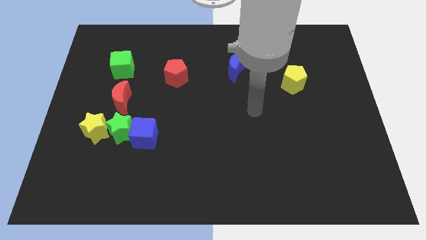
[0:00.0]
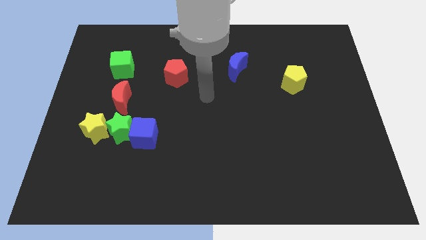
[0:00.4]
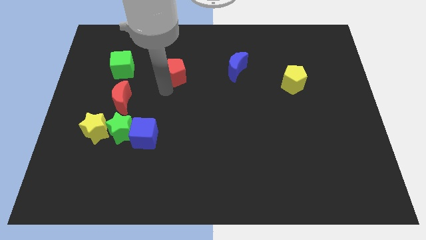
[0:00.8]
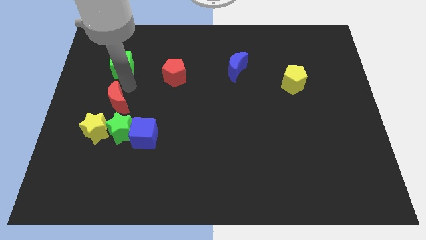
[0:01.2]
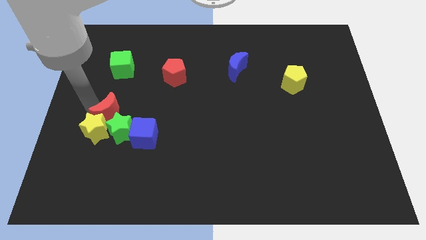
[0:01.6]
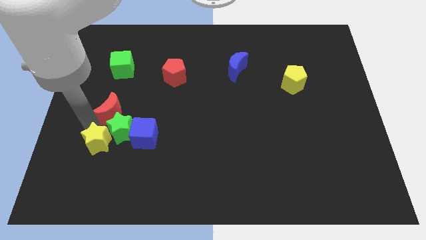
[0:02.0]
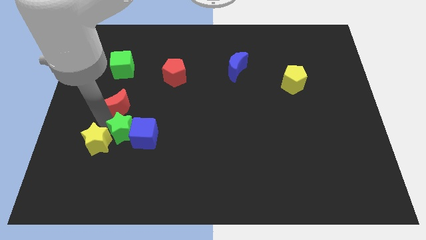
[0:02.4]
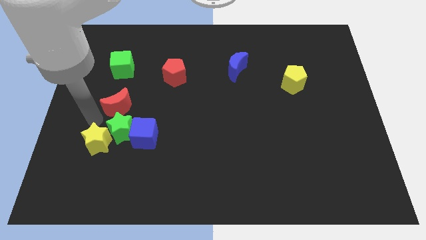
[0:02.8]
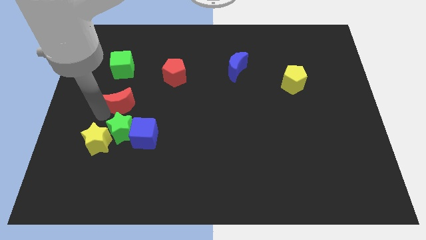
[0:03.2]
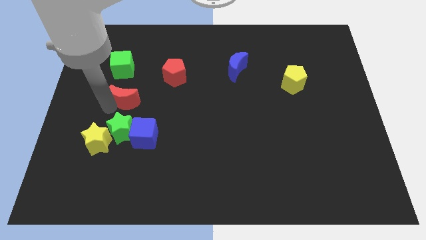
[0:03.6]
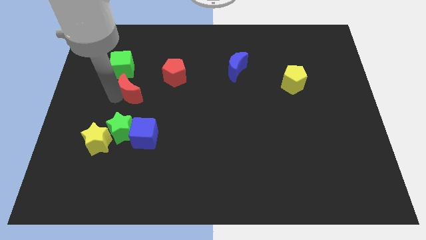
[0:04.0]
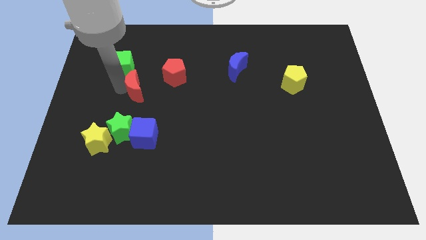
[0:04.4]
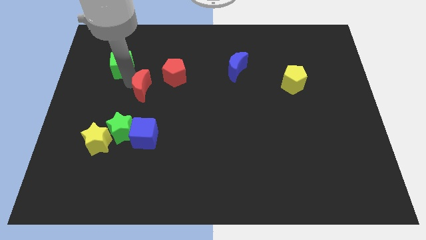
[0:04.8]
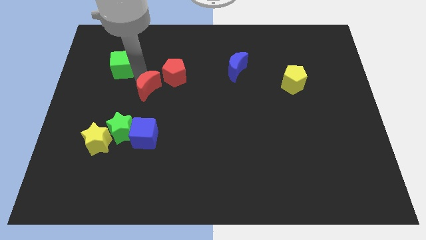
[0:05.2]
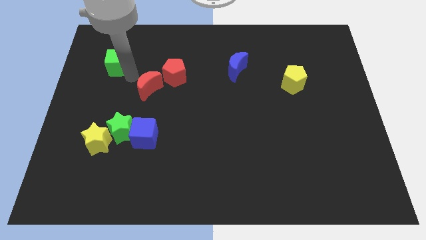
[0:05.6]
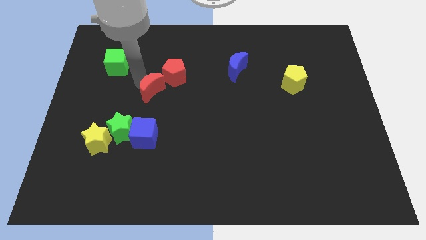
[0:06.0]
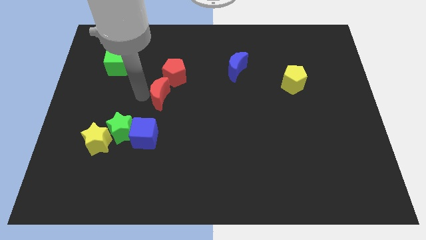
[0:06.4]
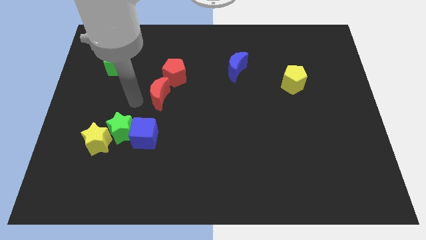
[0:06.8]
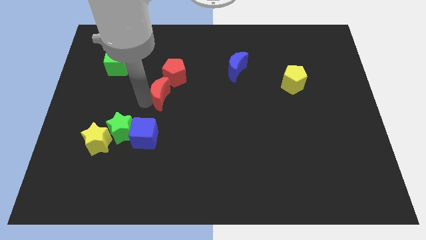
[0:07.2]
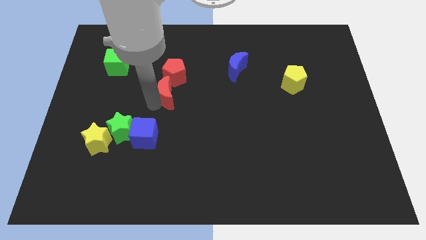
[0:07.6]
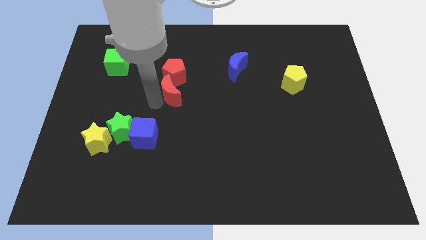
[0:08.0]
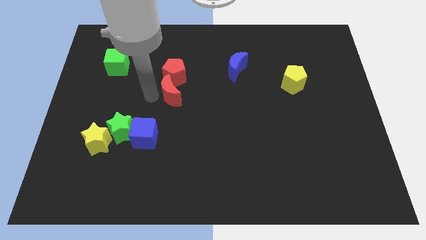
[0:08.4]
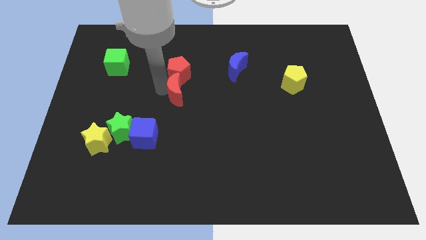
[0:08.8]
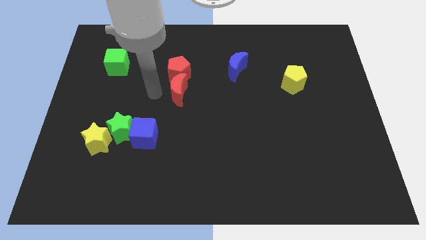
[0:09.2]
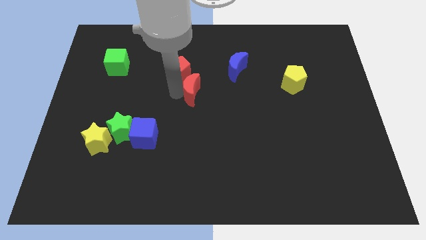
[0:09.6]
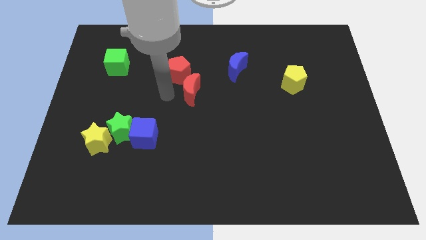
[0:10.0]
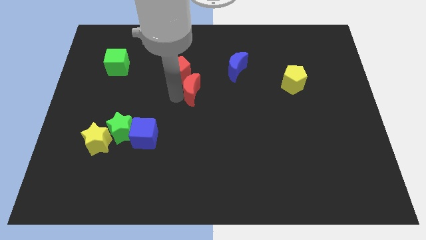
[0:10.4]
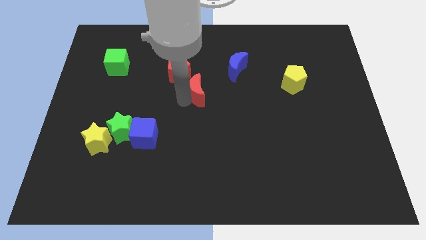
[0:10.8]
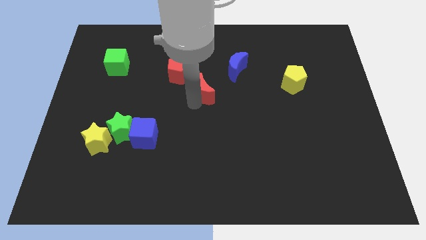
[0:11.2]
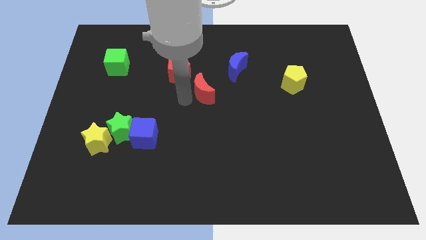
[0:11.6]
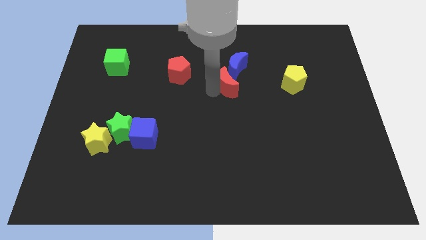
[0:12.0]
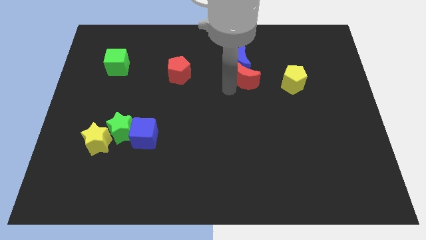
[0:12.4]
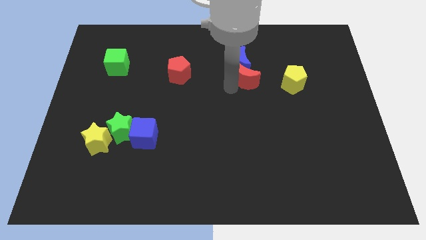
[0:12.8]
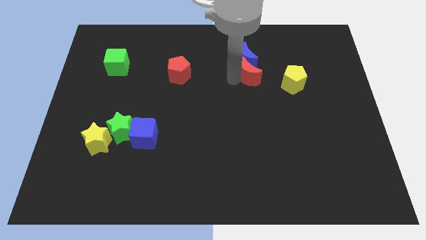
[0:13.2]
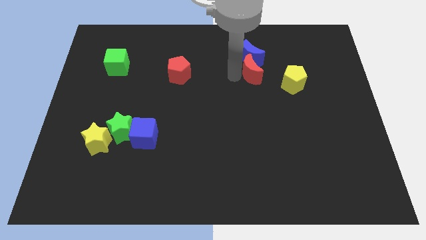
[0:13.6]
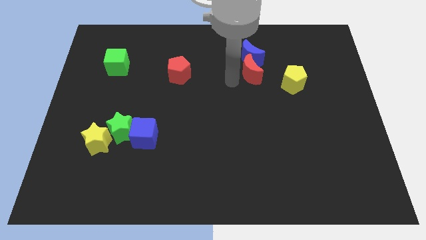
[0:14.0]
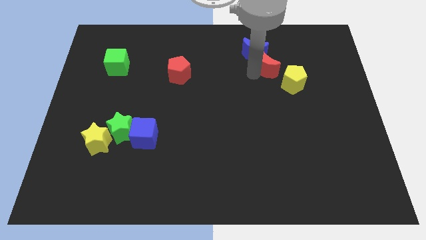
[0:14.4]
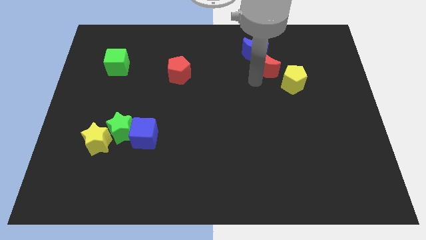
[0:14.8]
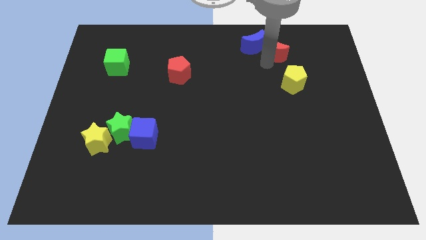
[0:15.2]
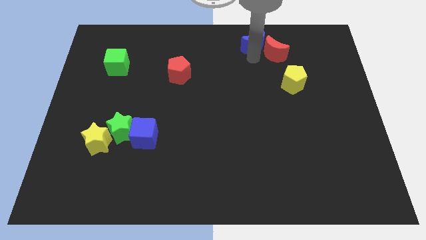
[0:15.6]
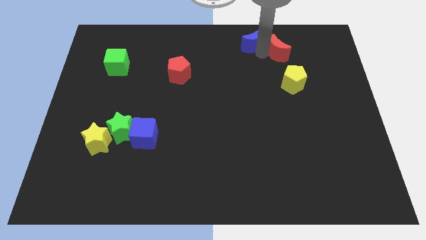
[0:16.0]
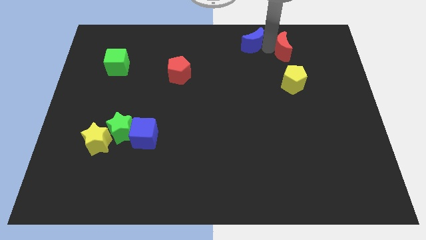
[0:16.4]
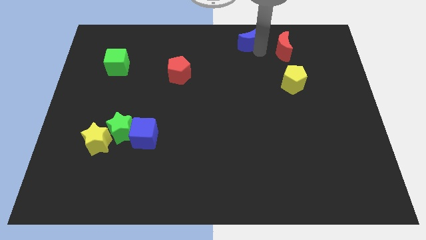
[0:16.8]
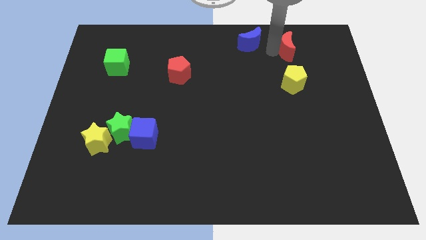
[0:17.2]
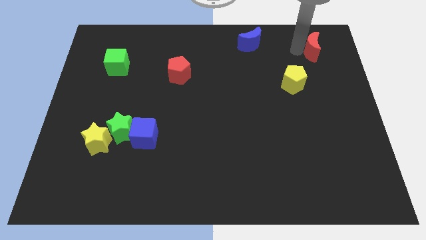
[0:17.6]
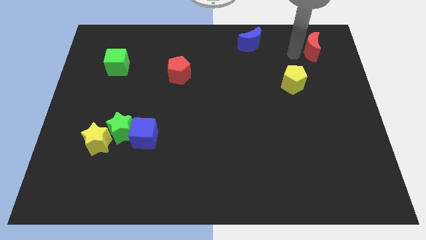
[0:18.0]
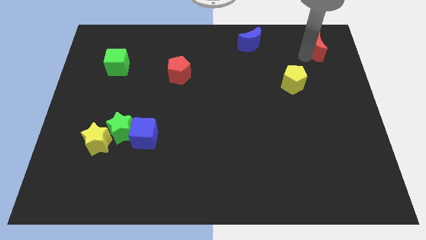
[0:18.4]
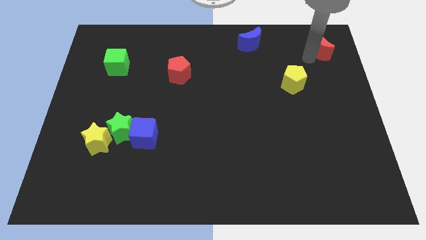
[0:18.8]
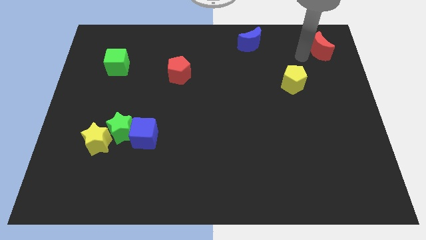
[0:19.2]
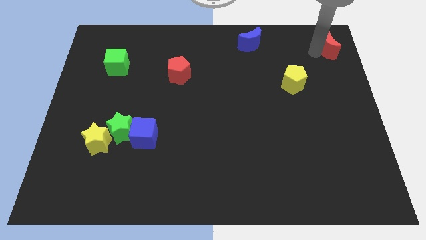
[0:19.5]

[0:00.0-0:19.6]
move the red moon to the top right

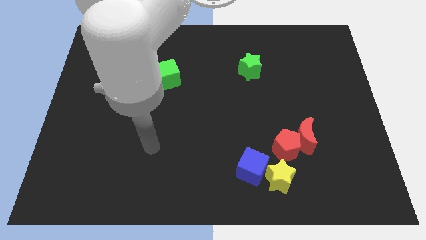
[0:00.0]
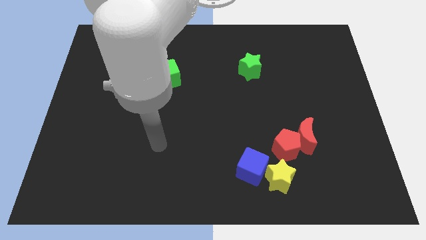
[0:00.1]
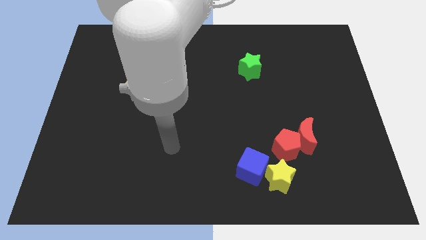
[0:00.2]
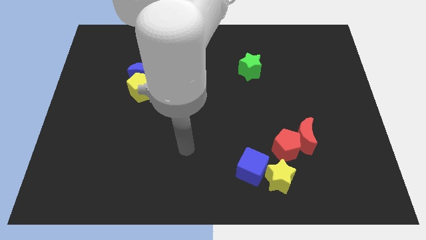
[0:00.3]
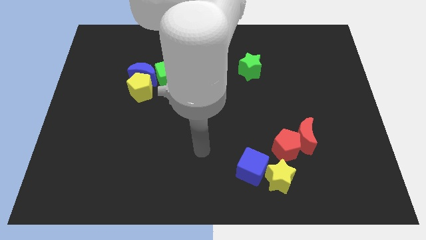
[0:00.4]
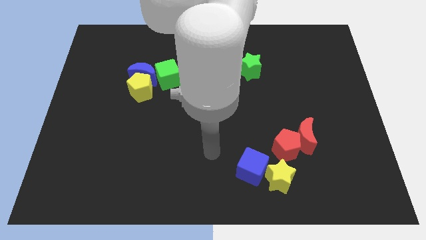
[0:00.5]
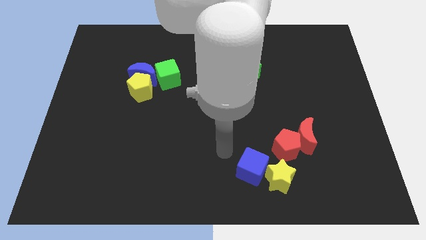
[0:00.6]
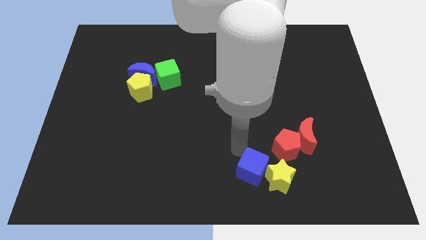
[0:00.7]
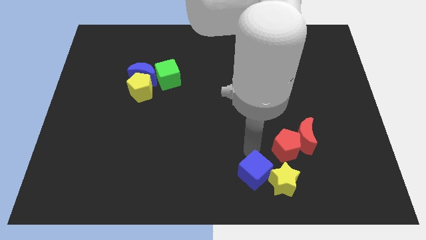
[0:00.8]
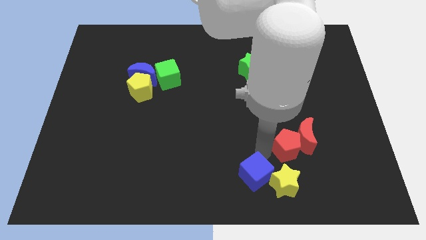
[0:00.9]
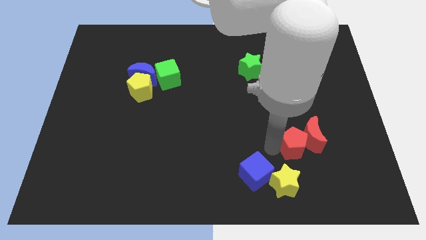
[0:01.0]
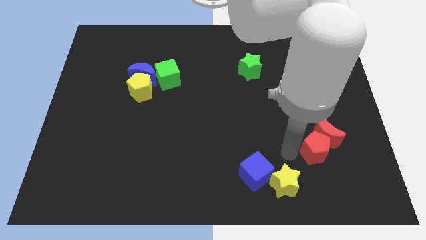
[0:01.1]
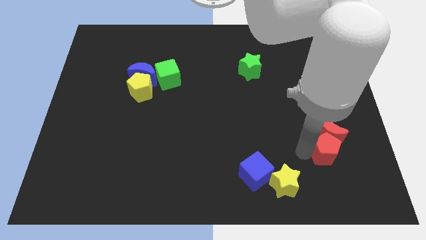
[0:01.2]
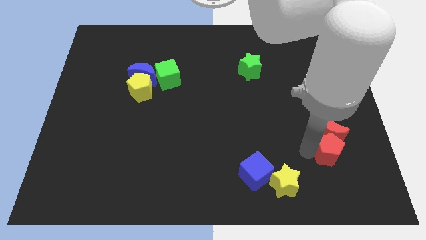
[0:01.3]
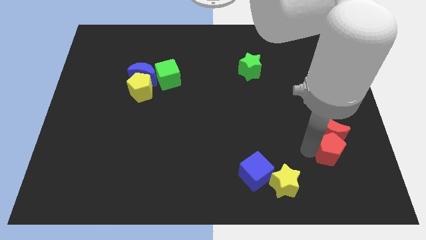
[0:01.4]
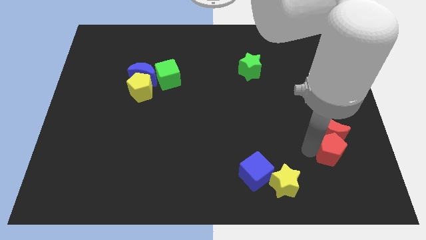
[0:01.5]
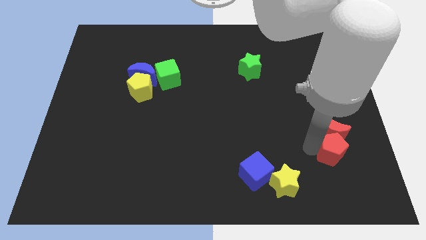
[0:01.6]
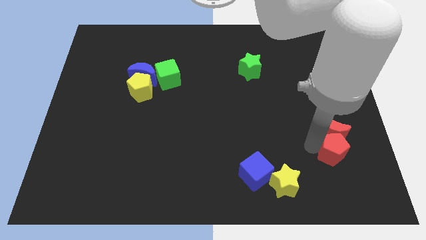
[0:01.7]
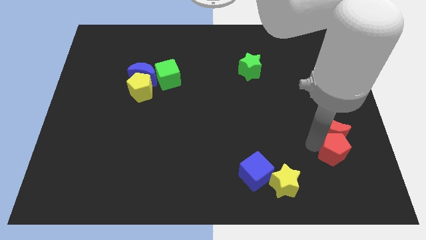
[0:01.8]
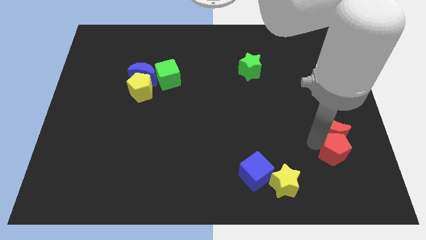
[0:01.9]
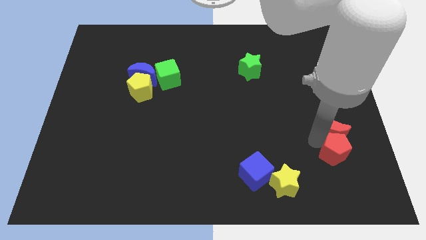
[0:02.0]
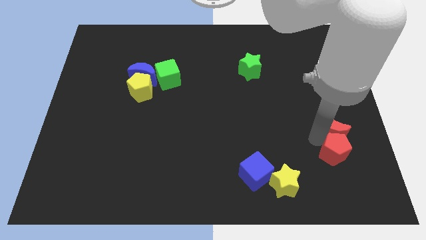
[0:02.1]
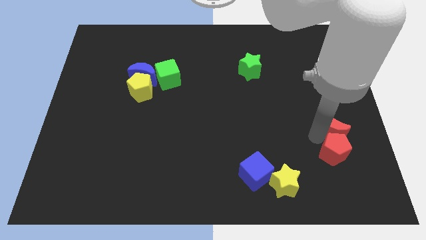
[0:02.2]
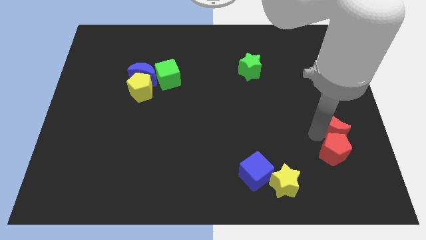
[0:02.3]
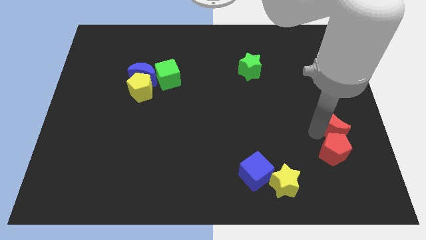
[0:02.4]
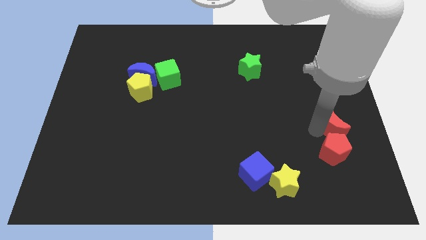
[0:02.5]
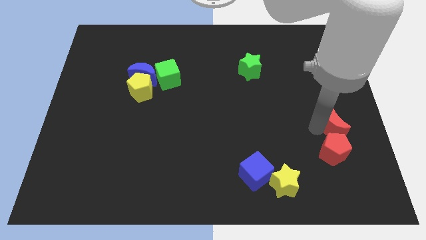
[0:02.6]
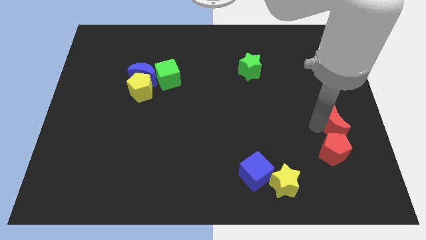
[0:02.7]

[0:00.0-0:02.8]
push the red moon to the right side
